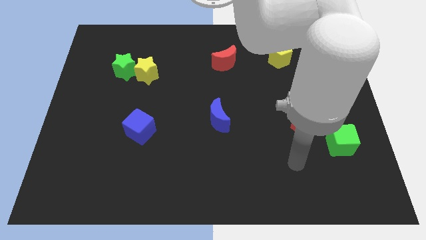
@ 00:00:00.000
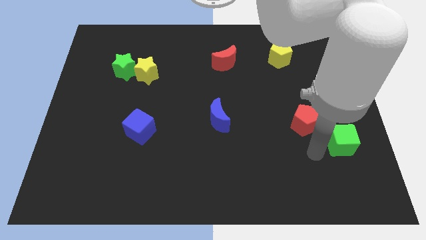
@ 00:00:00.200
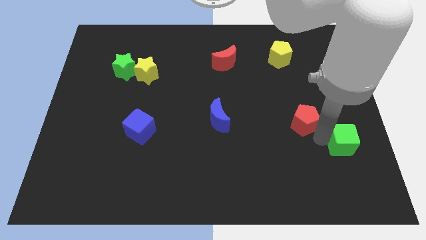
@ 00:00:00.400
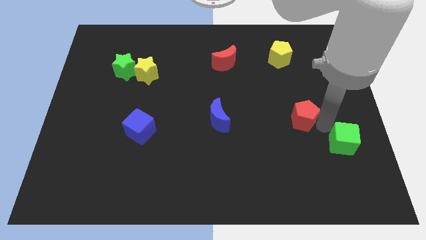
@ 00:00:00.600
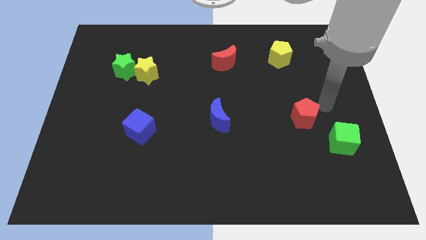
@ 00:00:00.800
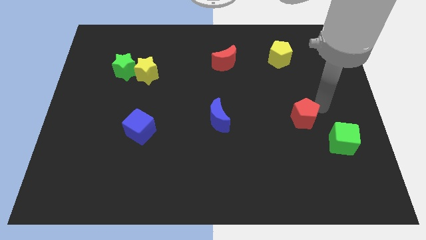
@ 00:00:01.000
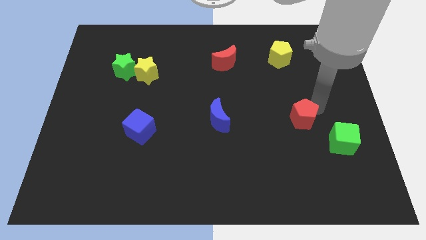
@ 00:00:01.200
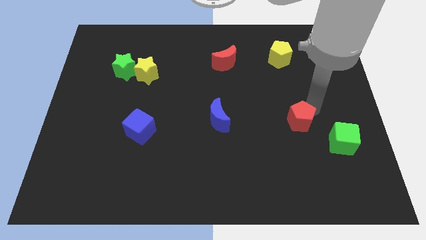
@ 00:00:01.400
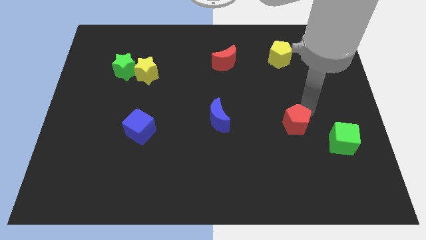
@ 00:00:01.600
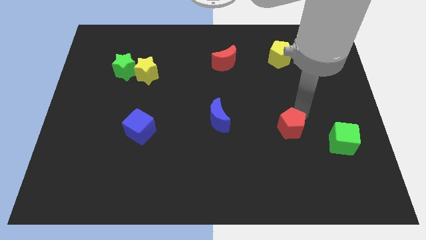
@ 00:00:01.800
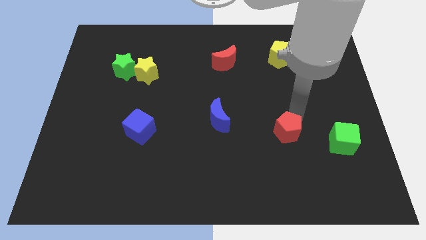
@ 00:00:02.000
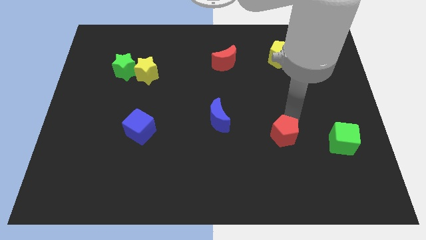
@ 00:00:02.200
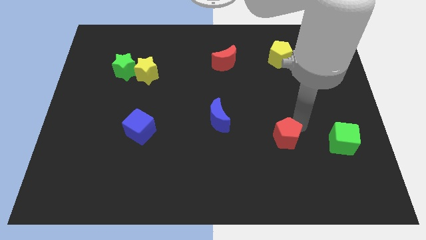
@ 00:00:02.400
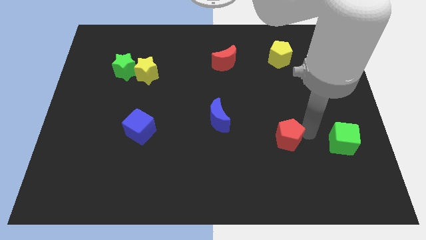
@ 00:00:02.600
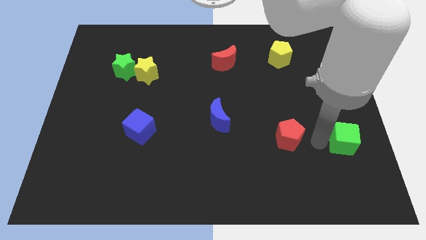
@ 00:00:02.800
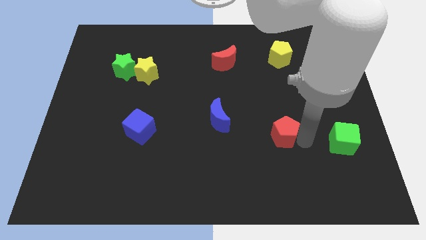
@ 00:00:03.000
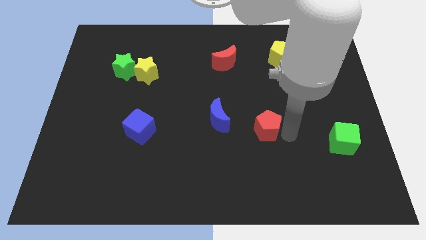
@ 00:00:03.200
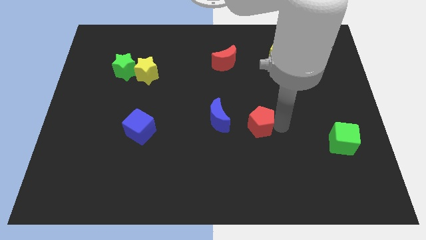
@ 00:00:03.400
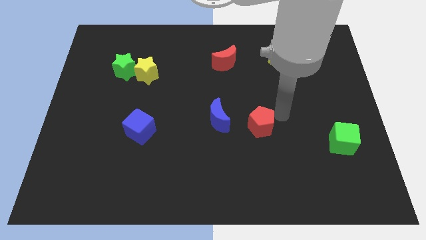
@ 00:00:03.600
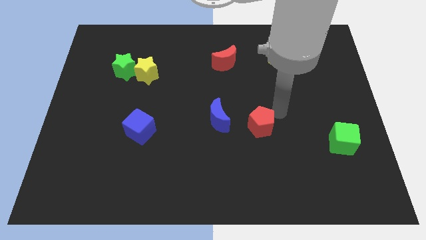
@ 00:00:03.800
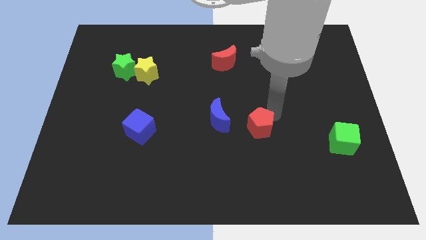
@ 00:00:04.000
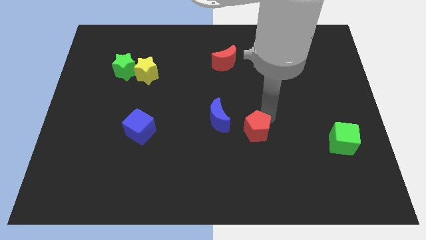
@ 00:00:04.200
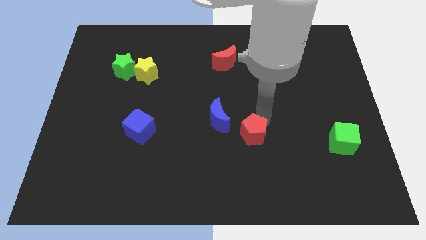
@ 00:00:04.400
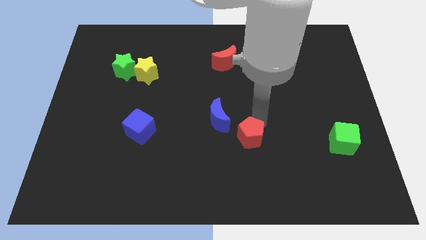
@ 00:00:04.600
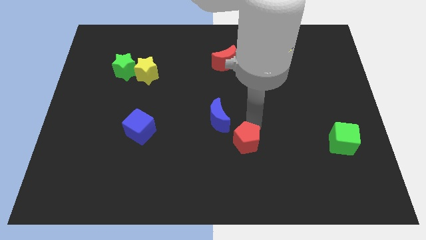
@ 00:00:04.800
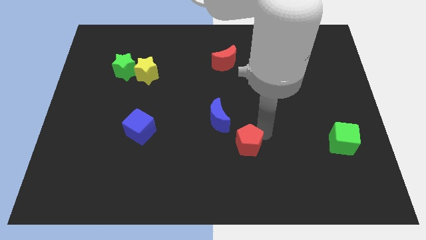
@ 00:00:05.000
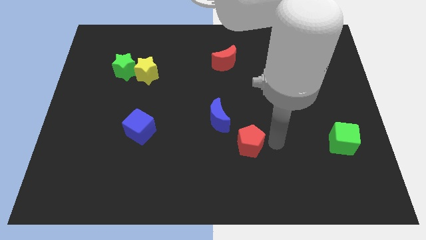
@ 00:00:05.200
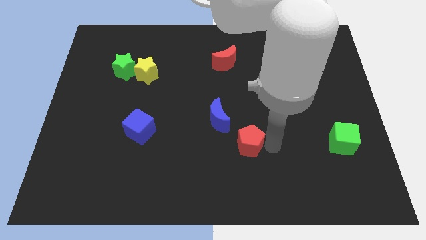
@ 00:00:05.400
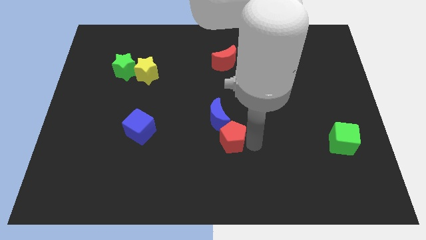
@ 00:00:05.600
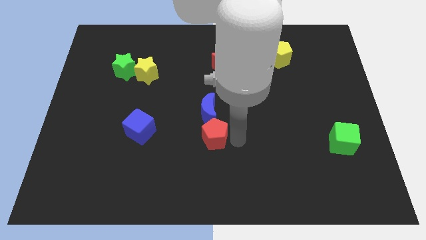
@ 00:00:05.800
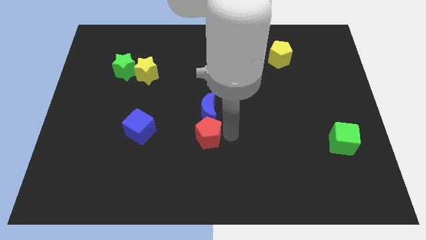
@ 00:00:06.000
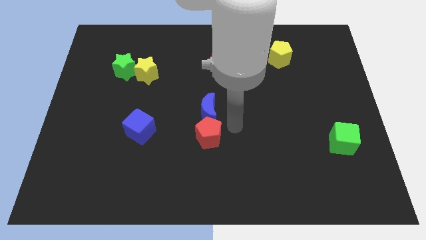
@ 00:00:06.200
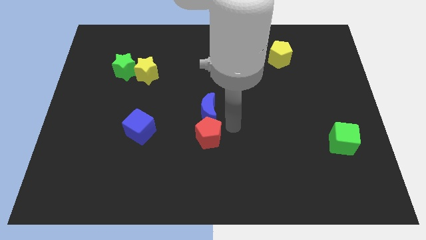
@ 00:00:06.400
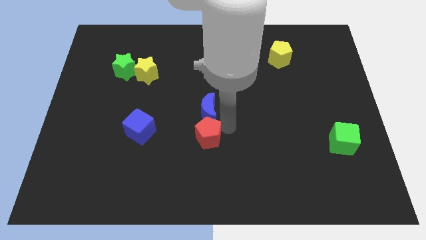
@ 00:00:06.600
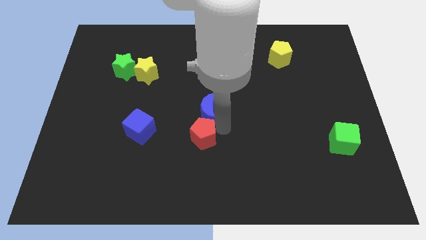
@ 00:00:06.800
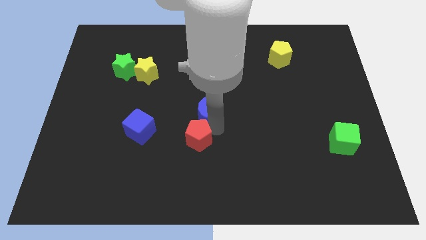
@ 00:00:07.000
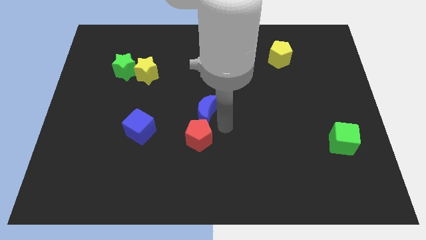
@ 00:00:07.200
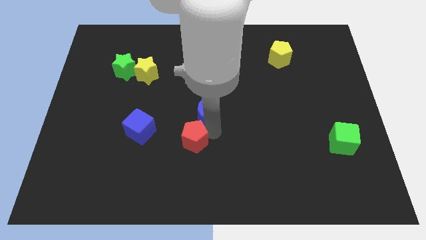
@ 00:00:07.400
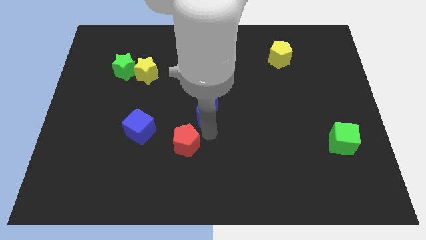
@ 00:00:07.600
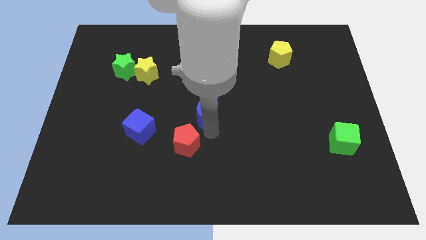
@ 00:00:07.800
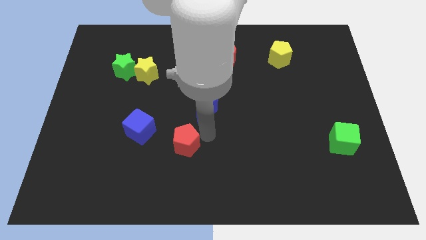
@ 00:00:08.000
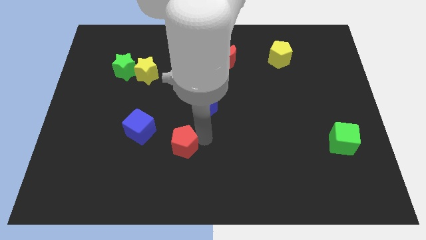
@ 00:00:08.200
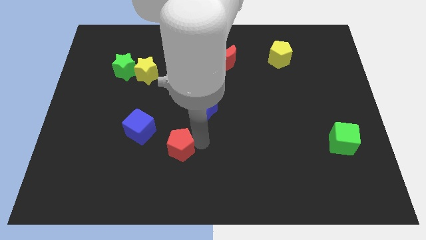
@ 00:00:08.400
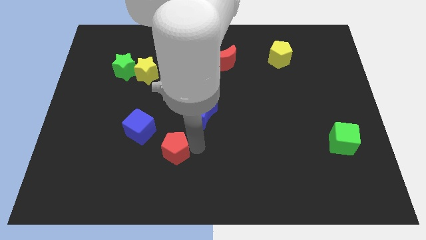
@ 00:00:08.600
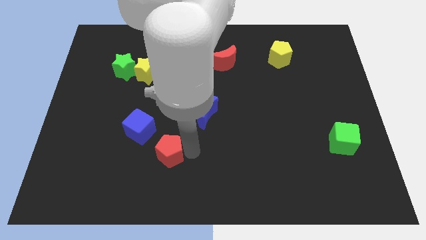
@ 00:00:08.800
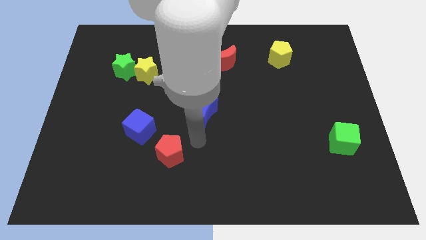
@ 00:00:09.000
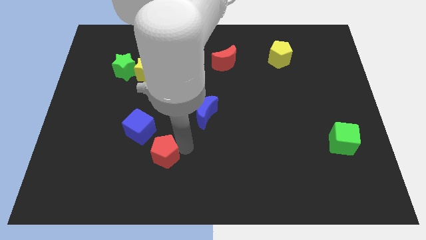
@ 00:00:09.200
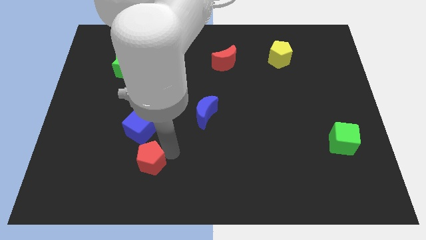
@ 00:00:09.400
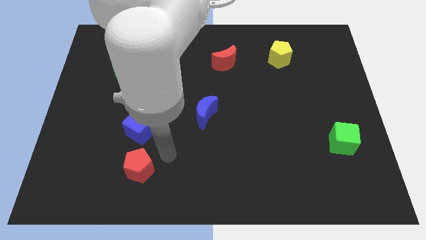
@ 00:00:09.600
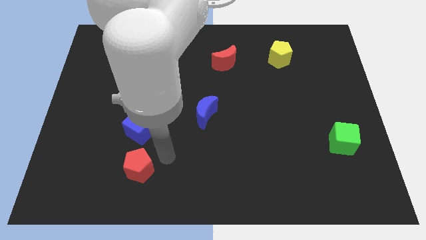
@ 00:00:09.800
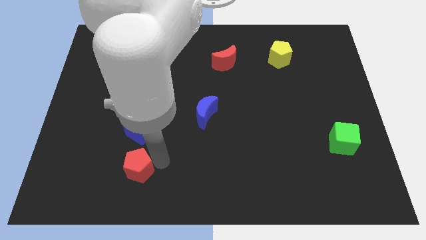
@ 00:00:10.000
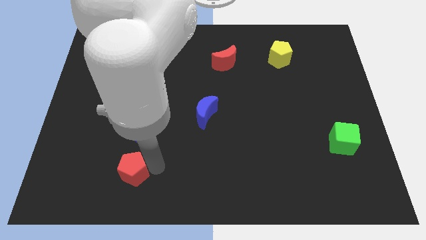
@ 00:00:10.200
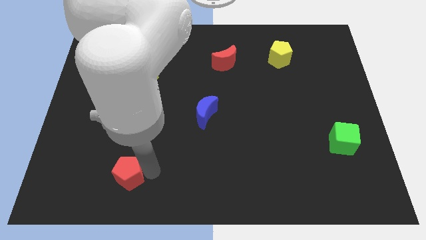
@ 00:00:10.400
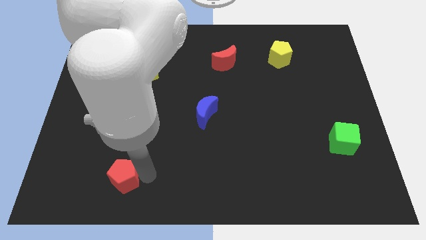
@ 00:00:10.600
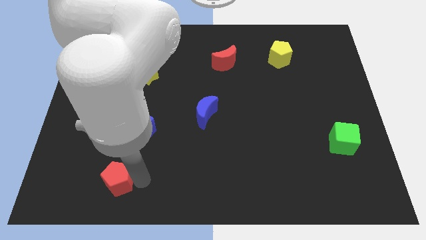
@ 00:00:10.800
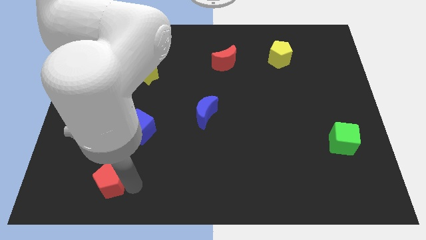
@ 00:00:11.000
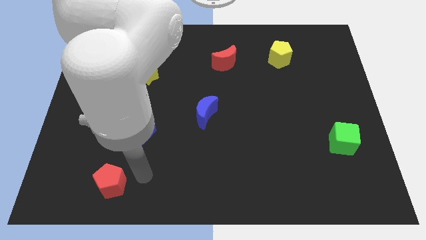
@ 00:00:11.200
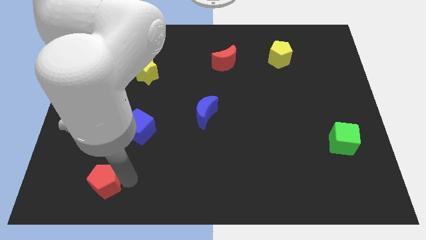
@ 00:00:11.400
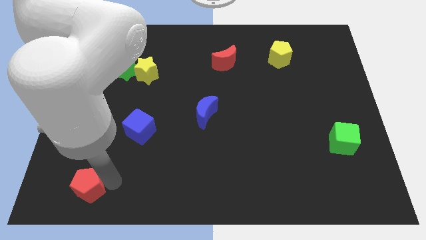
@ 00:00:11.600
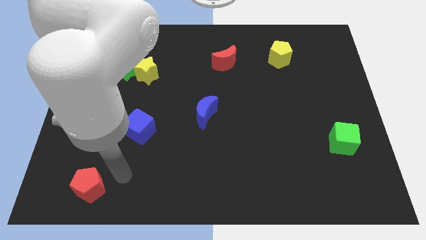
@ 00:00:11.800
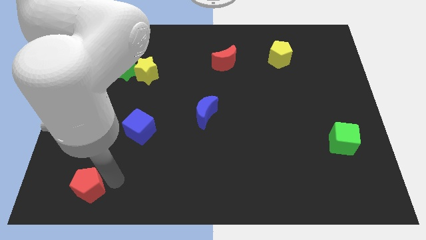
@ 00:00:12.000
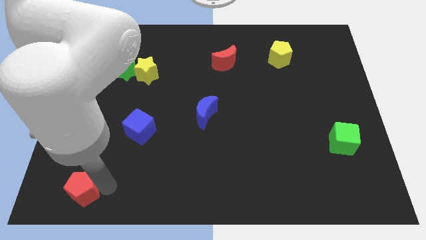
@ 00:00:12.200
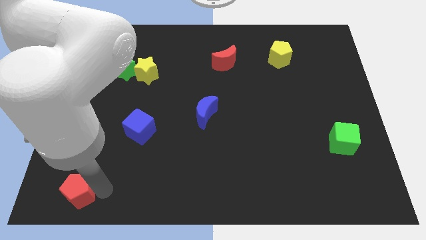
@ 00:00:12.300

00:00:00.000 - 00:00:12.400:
slide the red pentagon to the bottom left

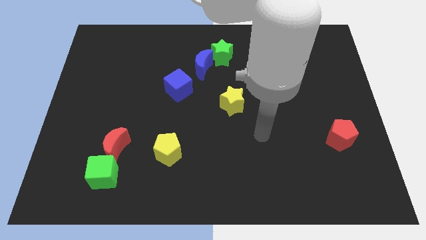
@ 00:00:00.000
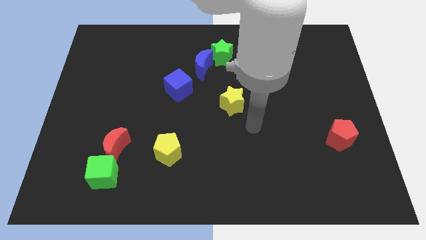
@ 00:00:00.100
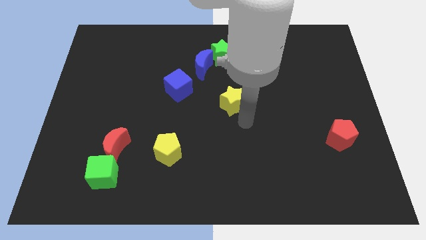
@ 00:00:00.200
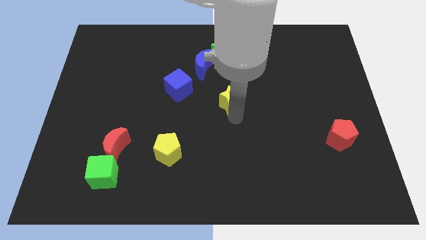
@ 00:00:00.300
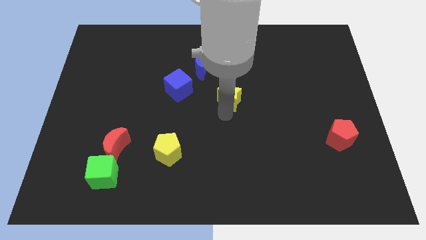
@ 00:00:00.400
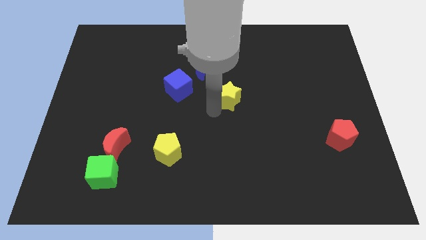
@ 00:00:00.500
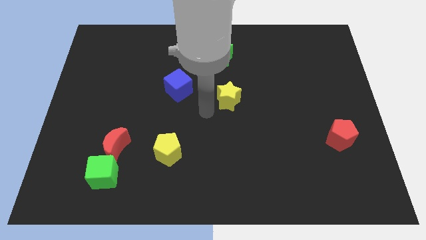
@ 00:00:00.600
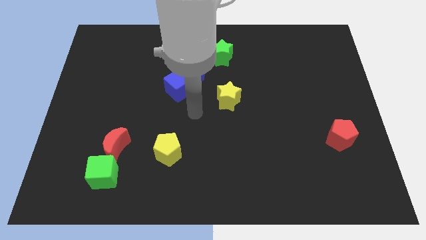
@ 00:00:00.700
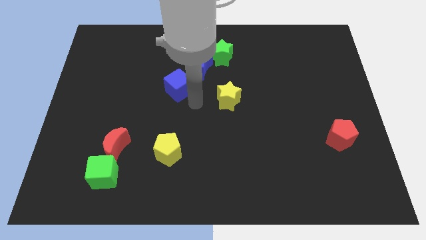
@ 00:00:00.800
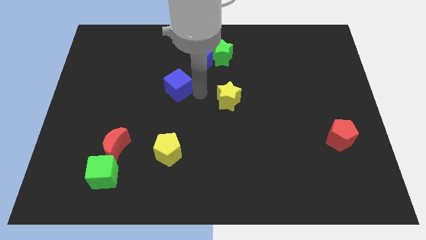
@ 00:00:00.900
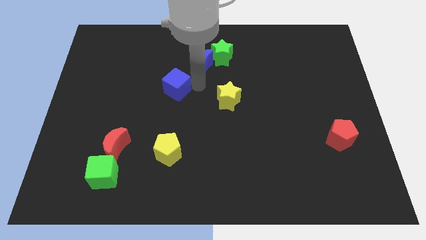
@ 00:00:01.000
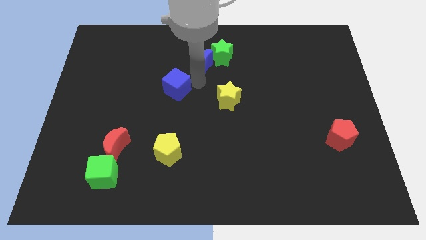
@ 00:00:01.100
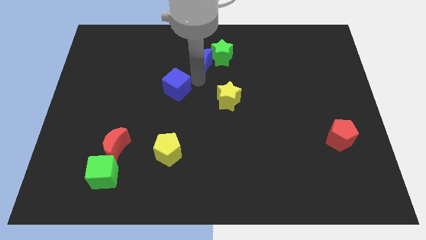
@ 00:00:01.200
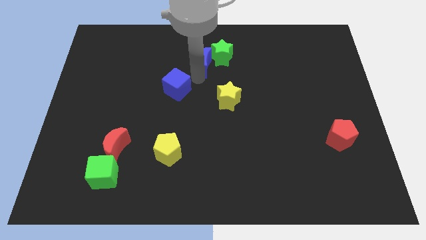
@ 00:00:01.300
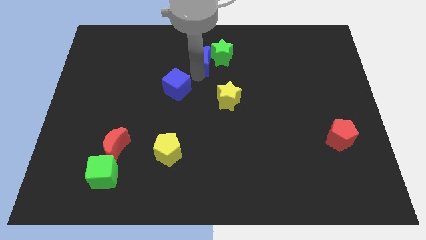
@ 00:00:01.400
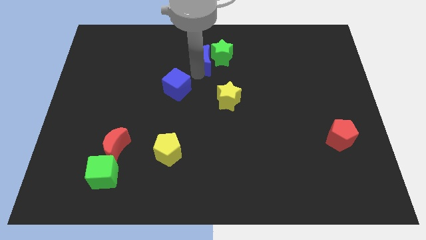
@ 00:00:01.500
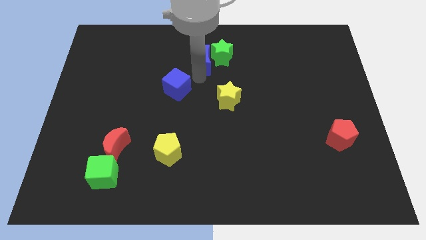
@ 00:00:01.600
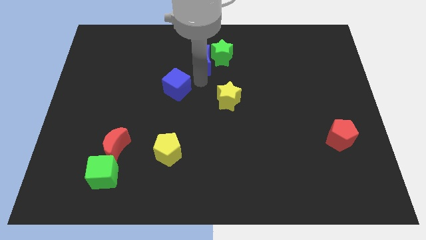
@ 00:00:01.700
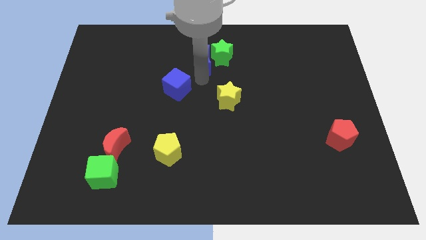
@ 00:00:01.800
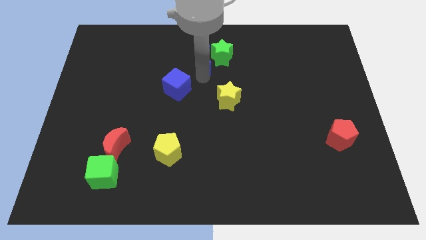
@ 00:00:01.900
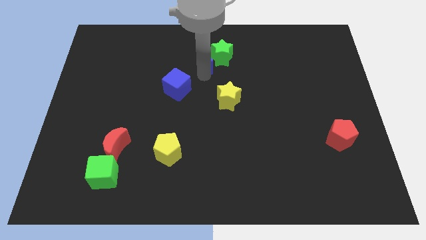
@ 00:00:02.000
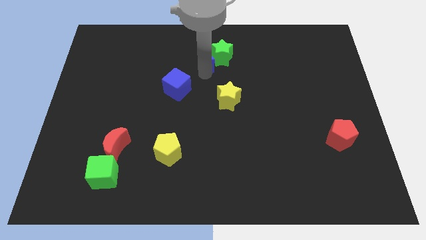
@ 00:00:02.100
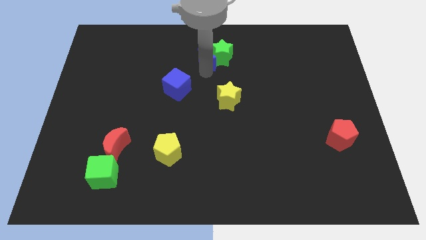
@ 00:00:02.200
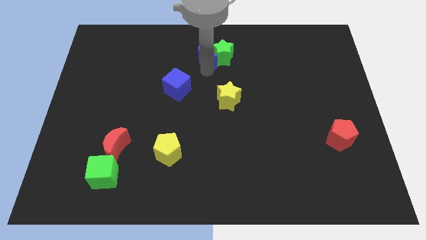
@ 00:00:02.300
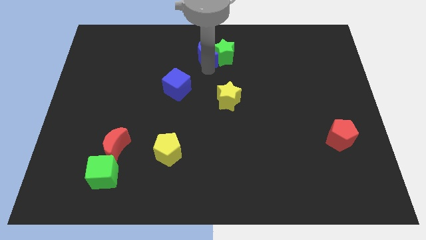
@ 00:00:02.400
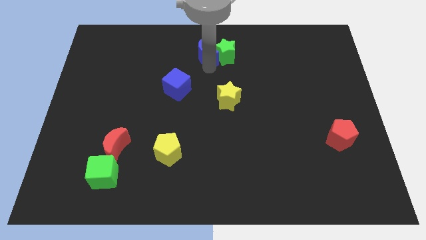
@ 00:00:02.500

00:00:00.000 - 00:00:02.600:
push the blue moon to the top
